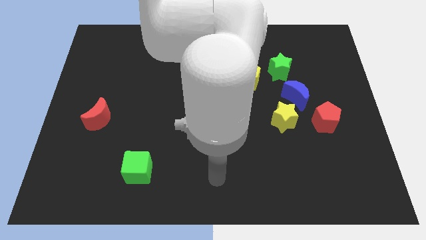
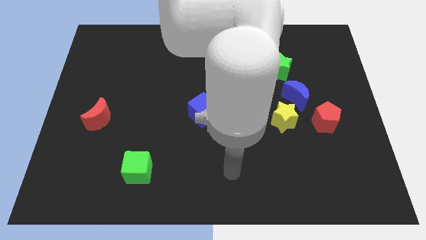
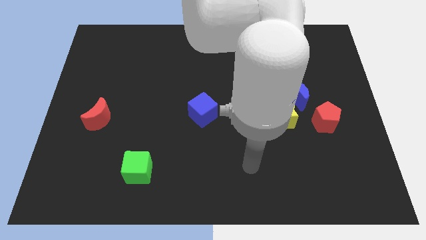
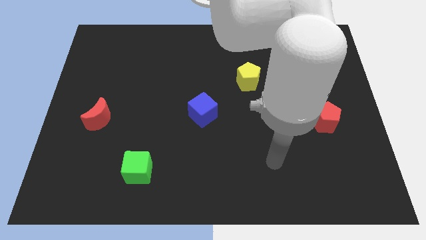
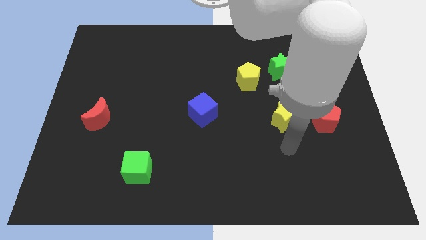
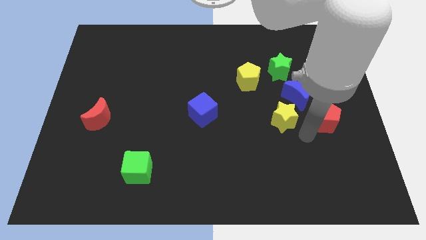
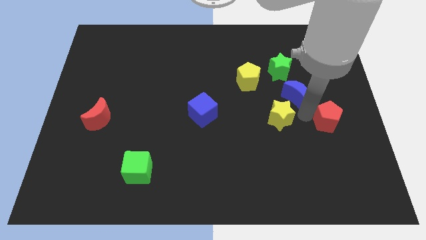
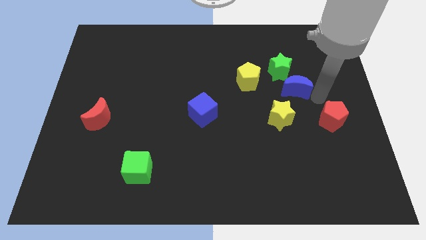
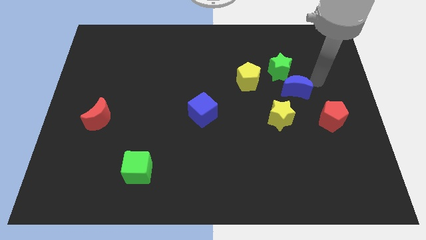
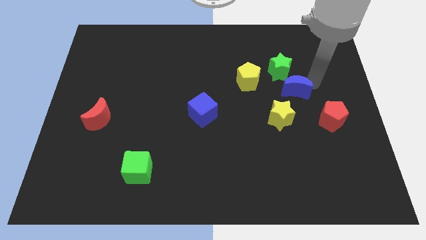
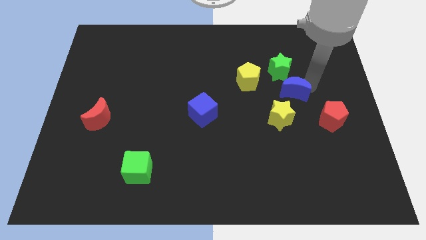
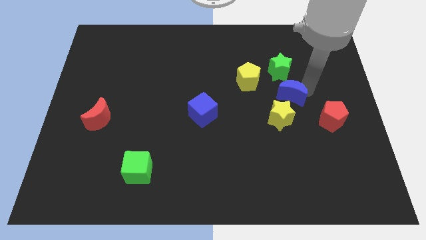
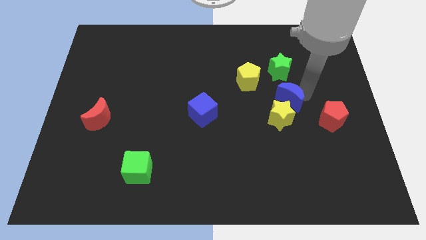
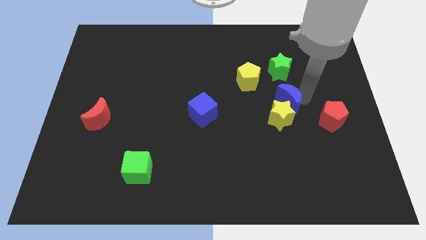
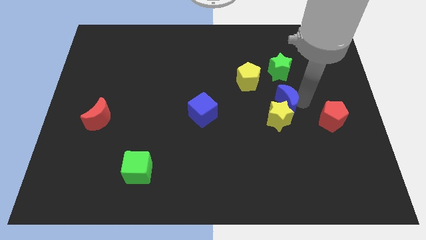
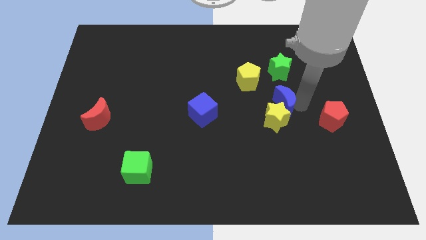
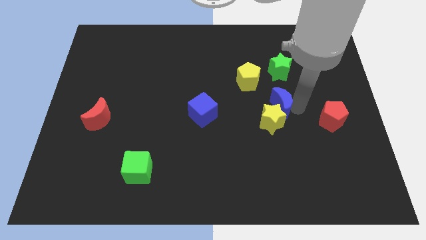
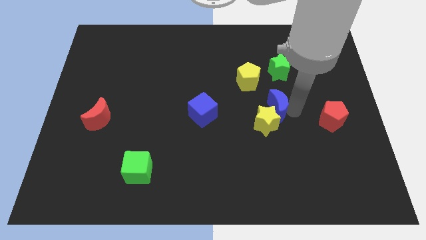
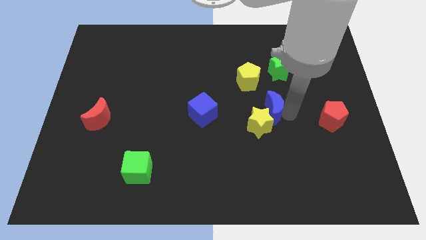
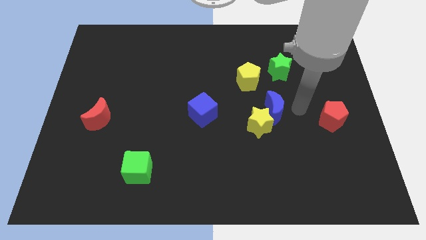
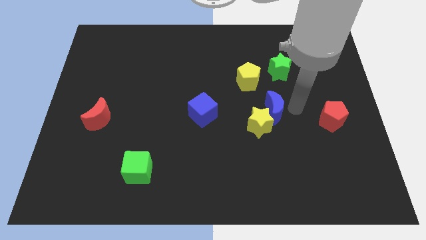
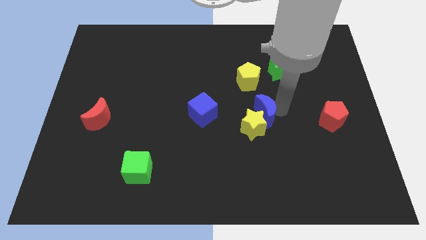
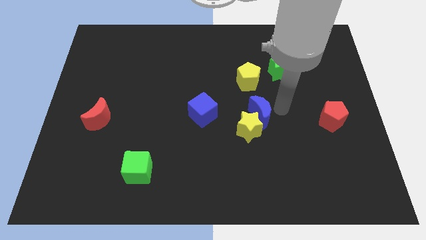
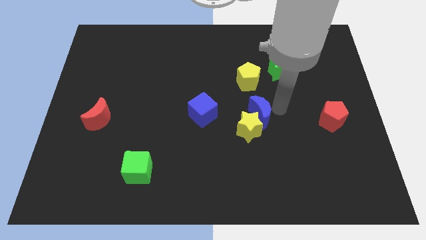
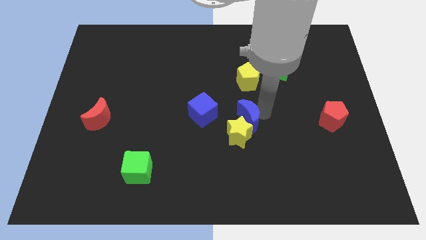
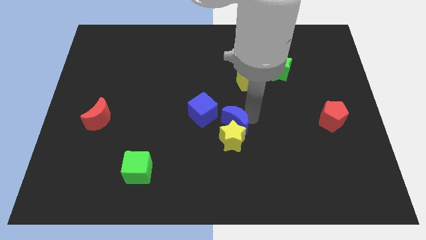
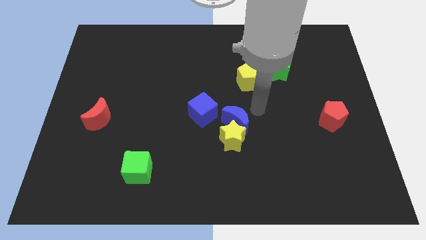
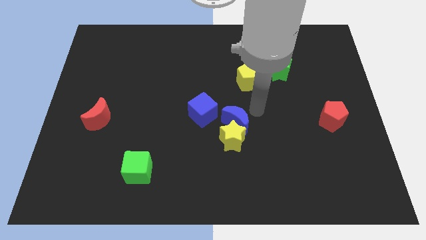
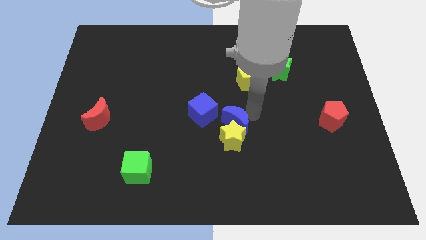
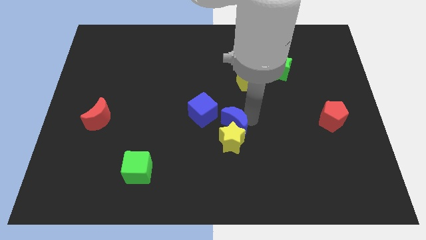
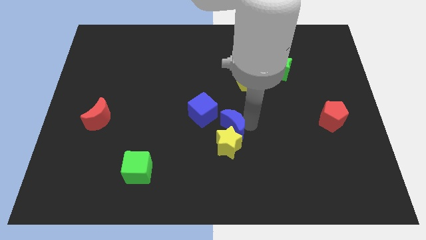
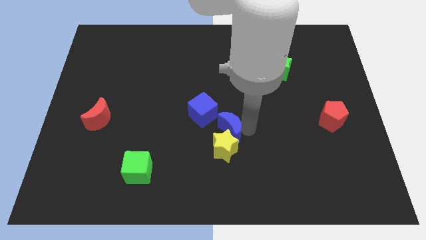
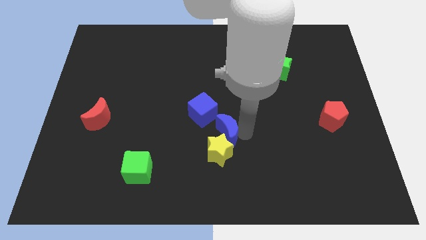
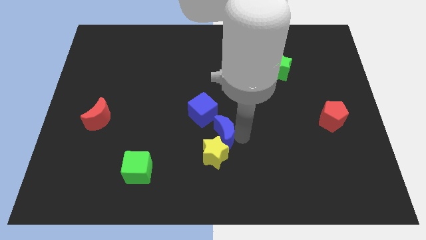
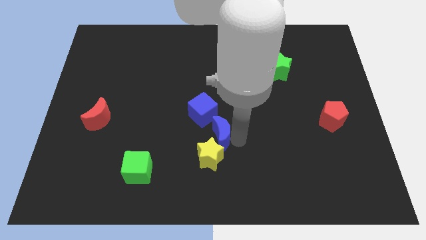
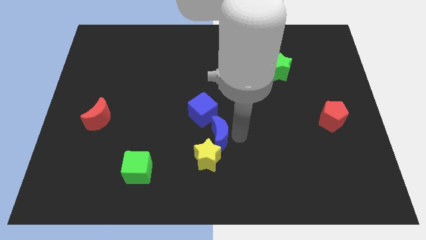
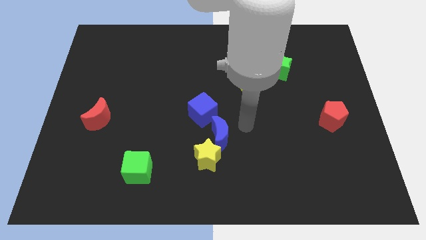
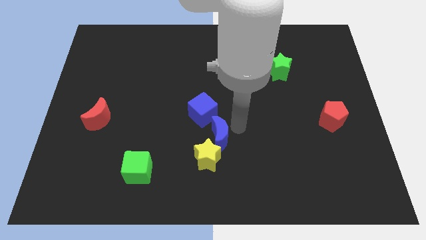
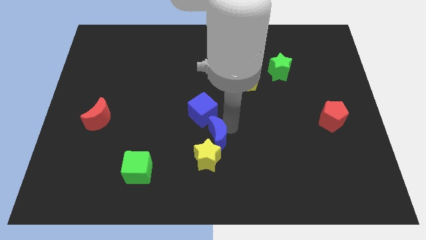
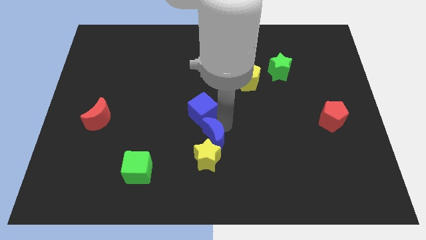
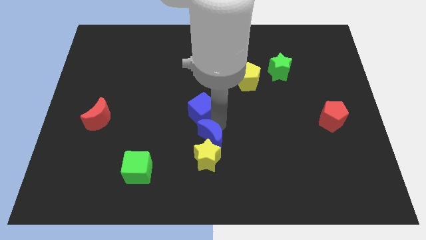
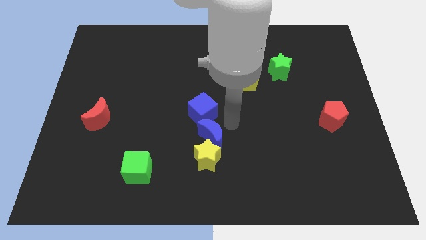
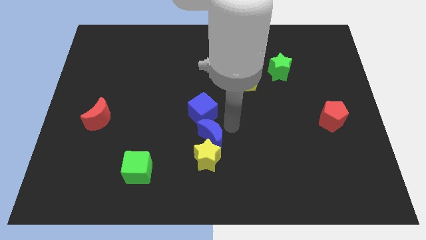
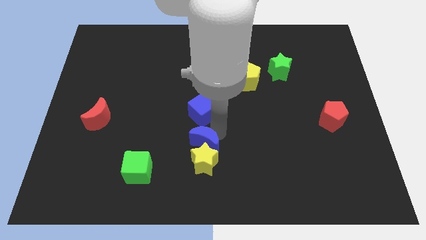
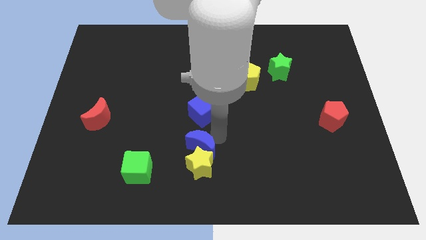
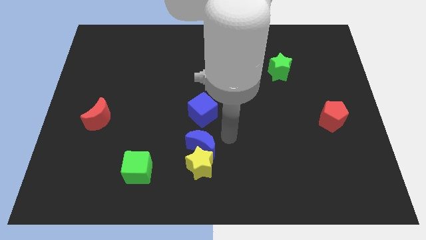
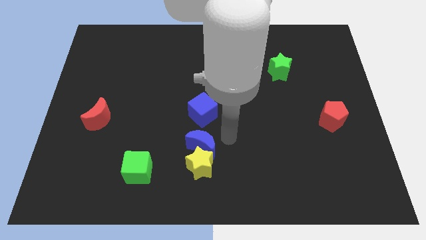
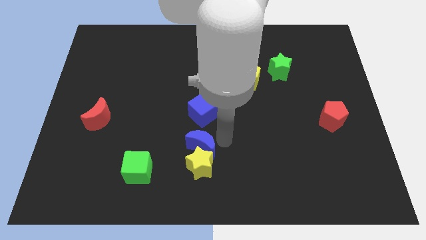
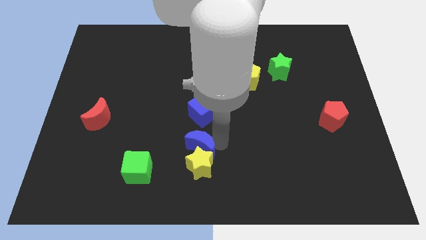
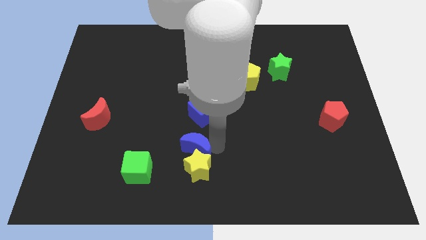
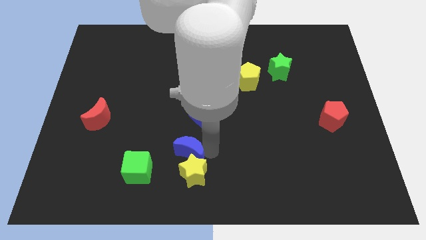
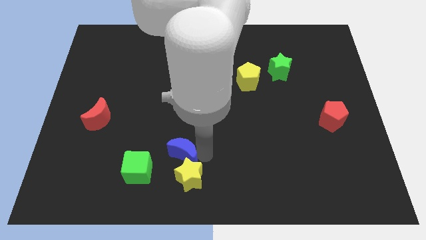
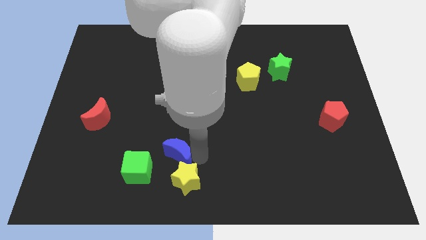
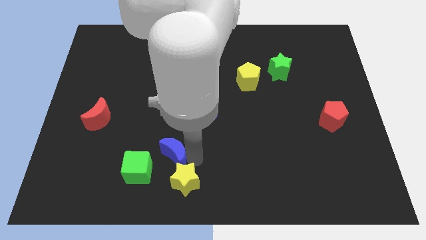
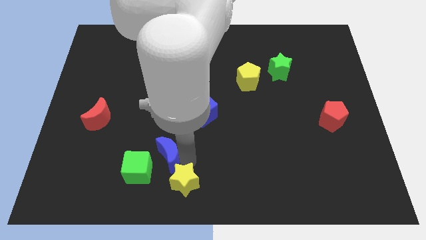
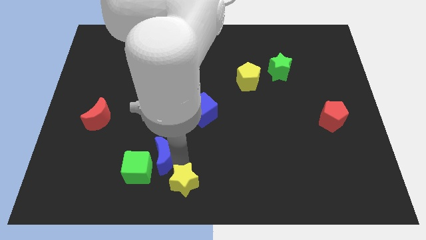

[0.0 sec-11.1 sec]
slide the blue moon next to the green cube

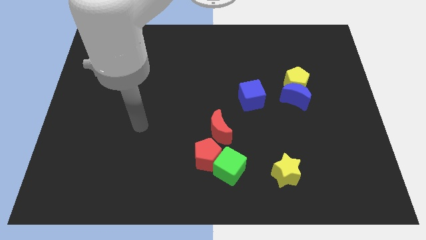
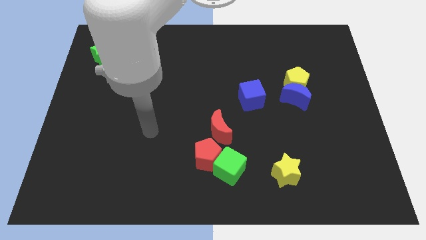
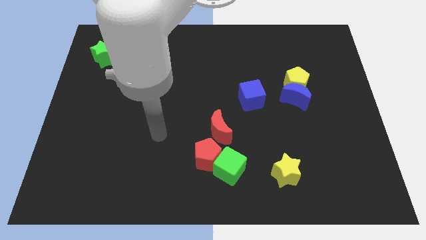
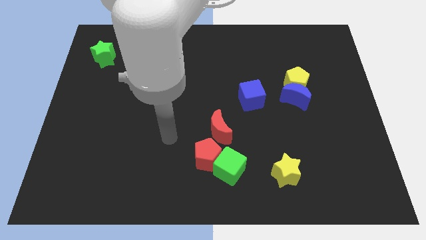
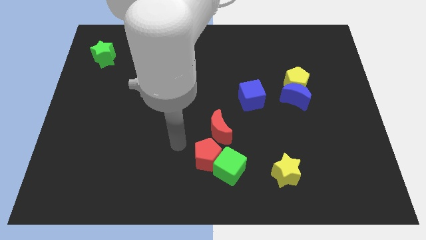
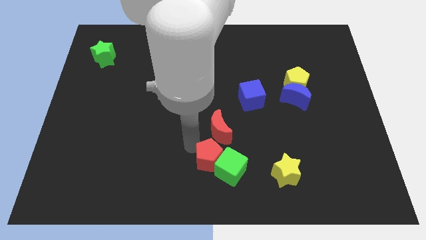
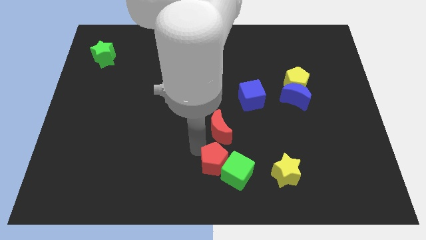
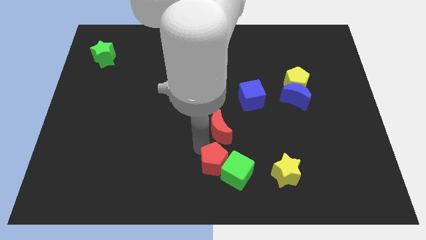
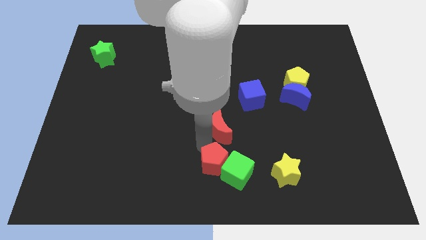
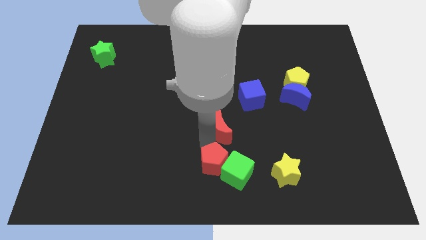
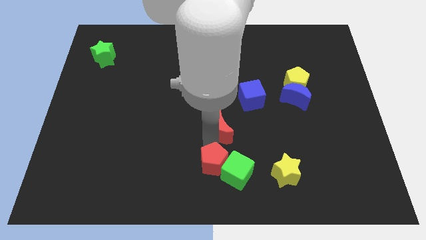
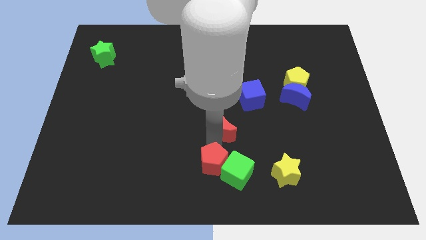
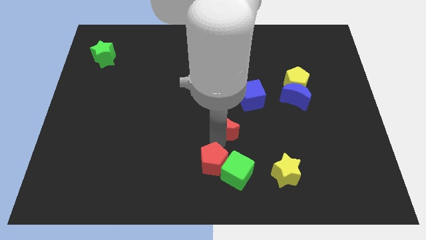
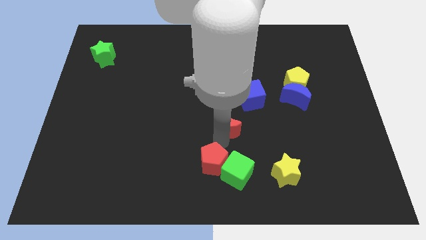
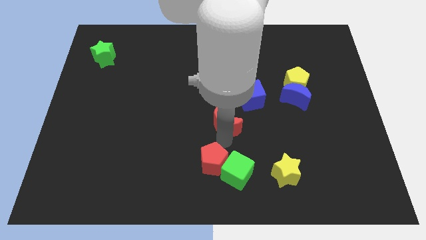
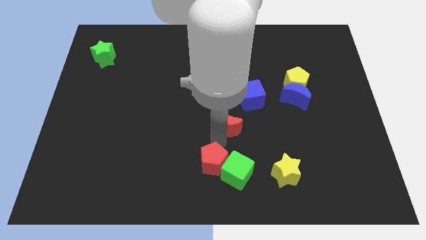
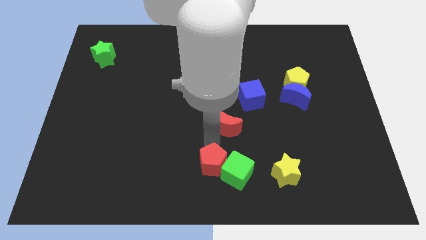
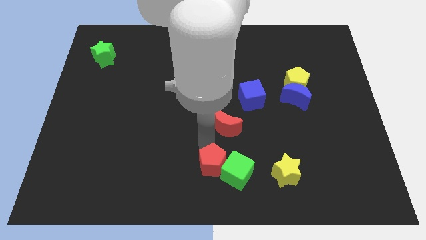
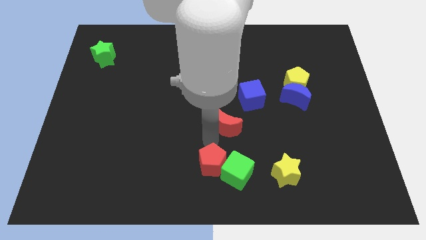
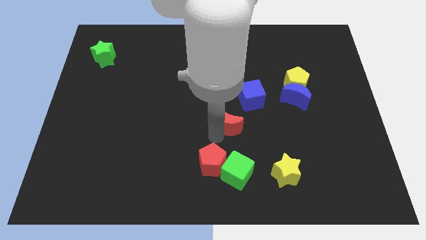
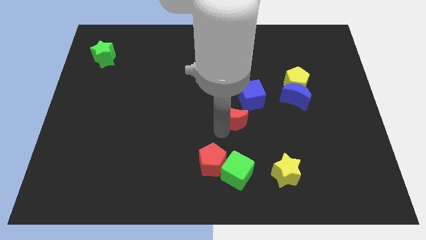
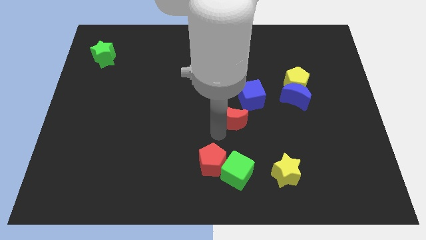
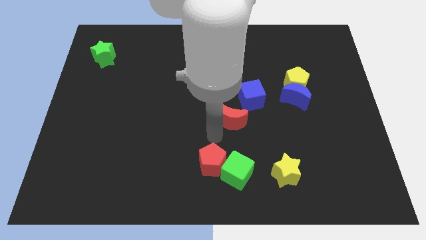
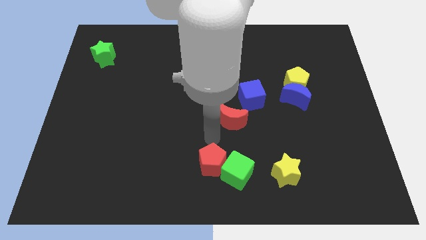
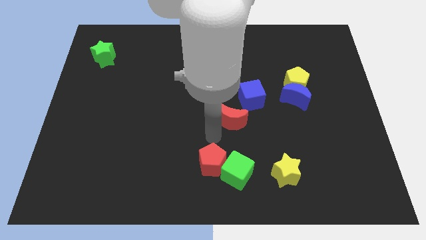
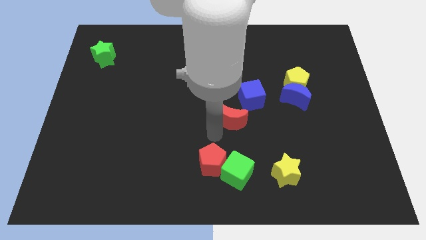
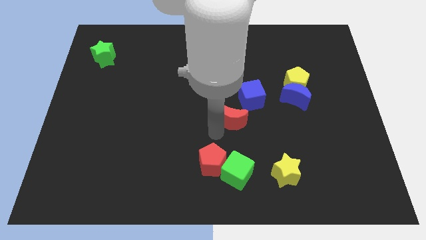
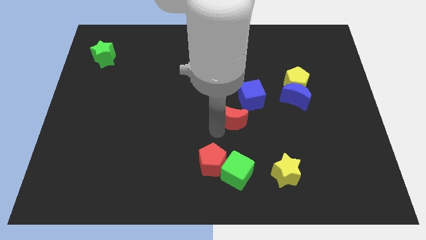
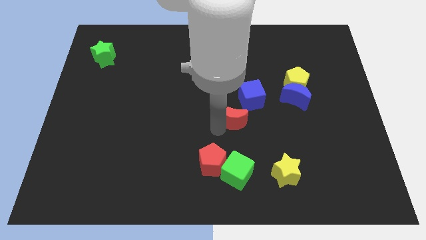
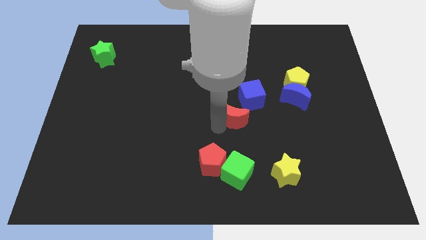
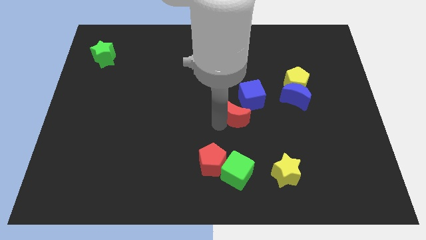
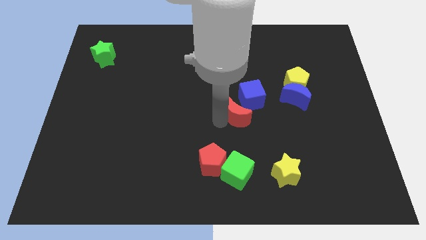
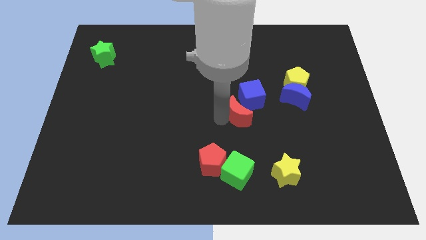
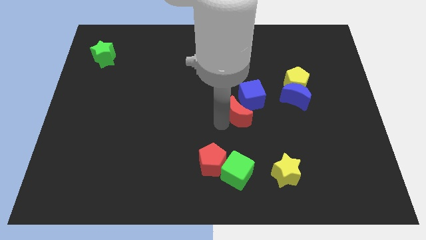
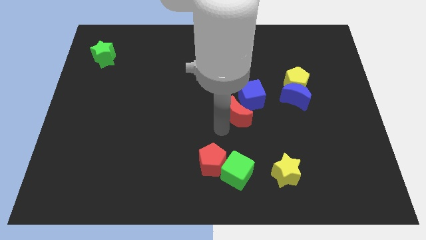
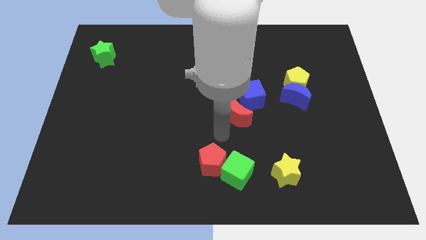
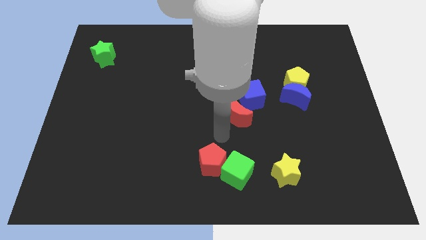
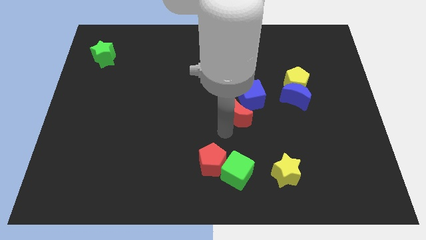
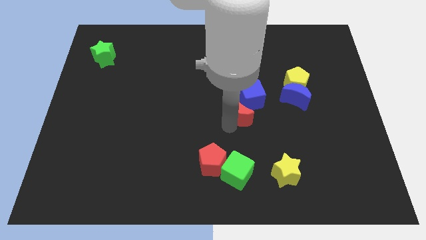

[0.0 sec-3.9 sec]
move the red moon to the blue cube
